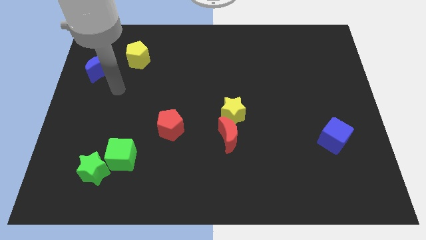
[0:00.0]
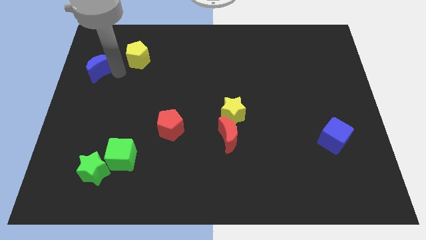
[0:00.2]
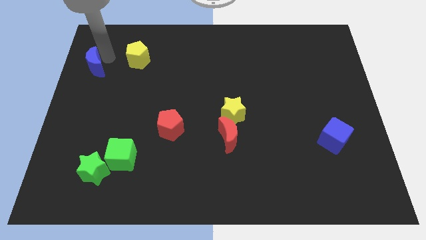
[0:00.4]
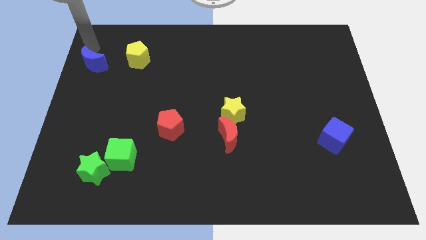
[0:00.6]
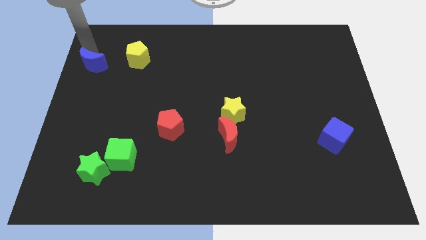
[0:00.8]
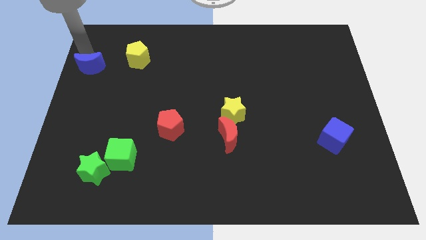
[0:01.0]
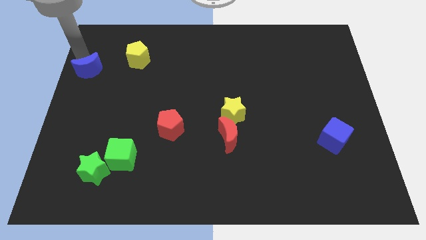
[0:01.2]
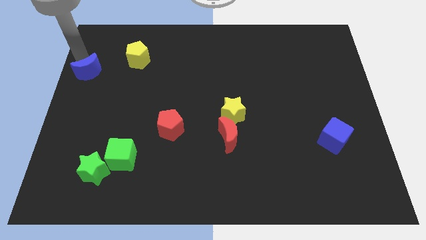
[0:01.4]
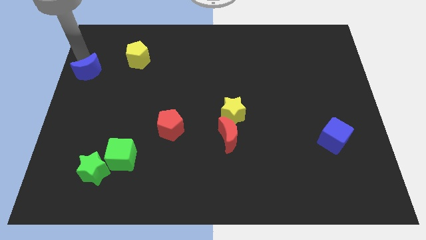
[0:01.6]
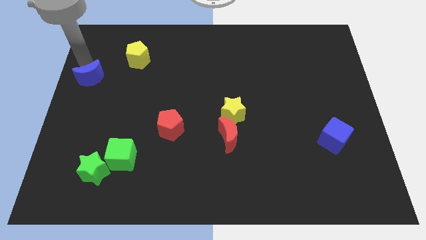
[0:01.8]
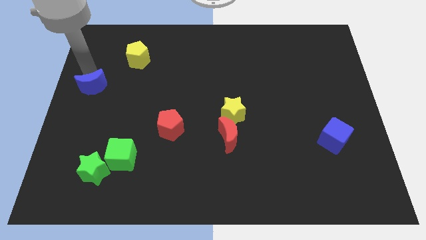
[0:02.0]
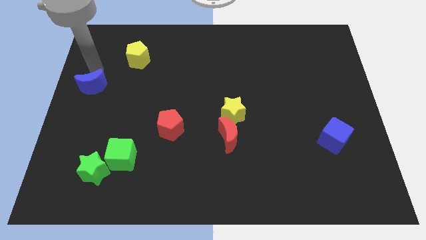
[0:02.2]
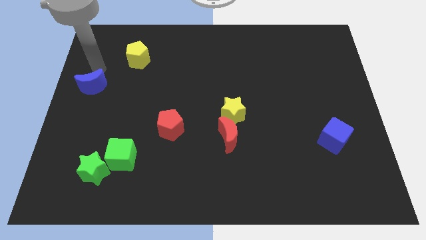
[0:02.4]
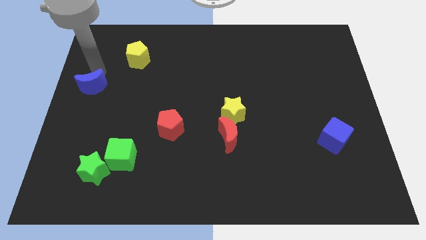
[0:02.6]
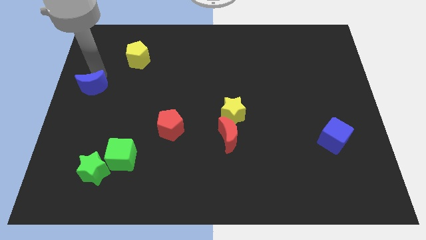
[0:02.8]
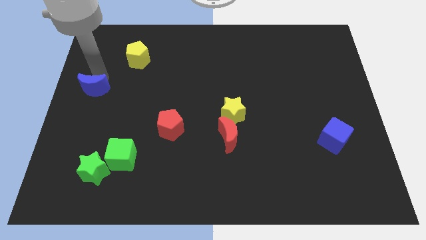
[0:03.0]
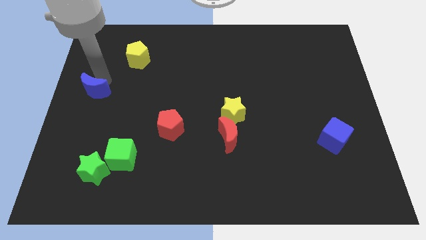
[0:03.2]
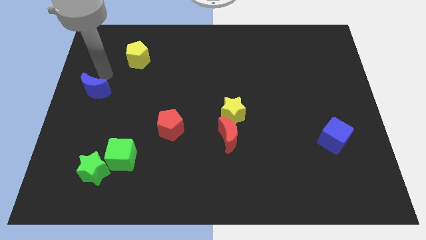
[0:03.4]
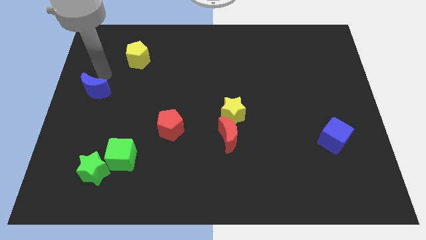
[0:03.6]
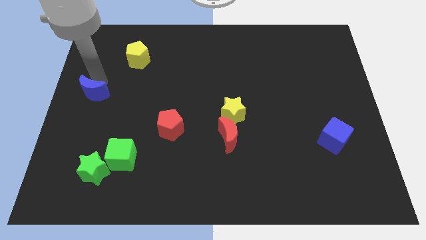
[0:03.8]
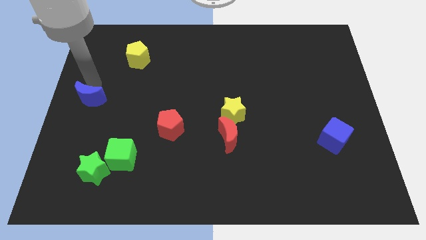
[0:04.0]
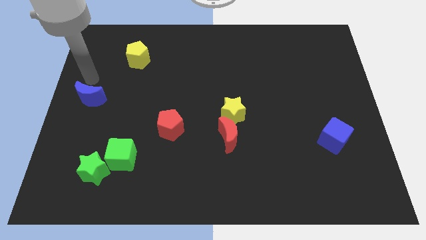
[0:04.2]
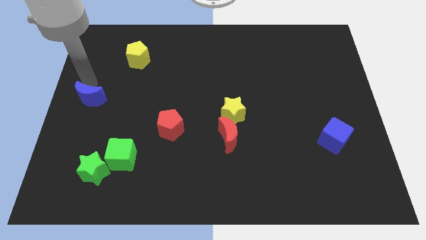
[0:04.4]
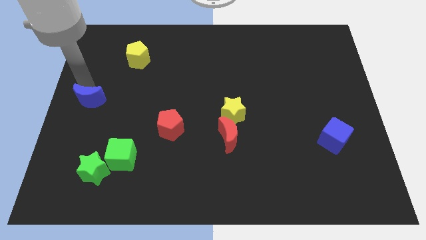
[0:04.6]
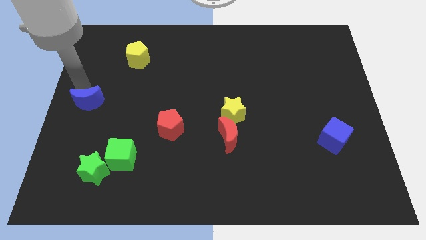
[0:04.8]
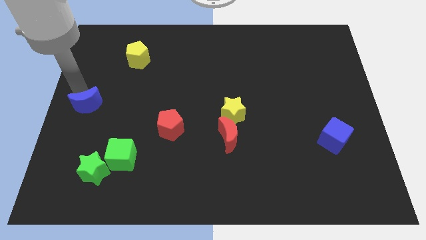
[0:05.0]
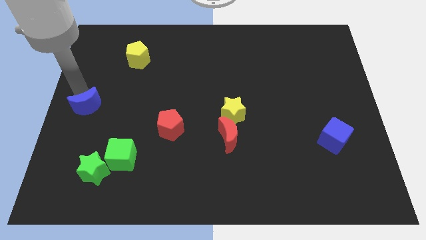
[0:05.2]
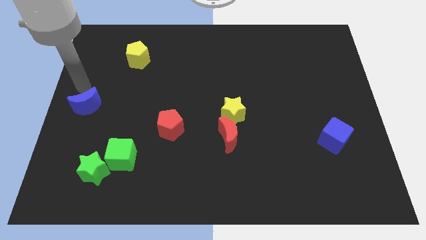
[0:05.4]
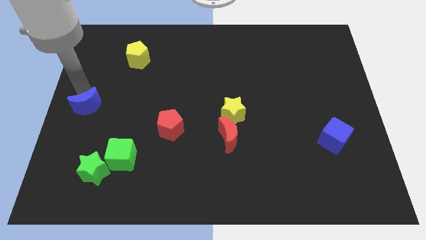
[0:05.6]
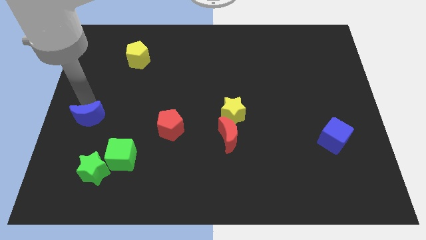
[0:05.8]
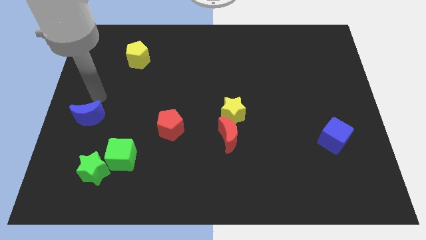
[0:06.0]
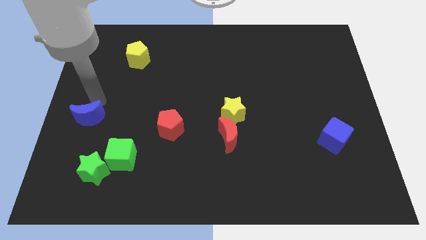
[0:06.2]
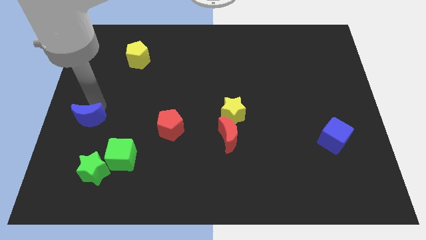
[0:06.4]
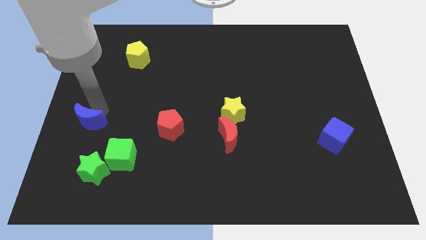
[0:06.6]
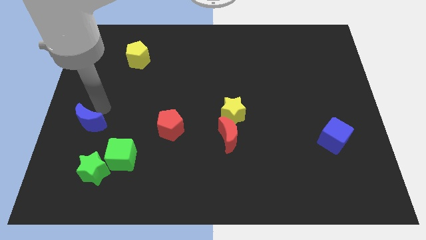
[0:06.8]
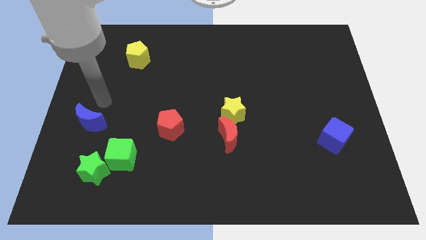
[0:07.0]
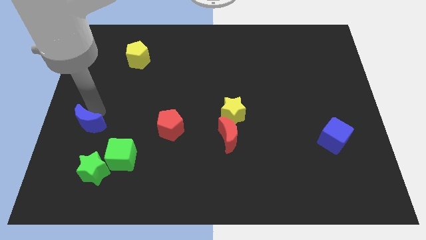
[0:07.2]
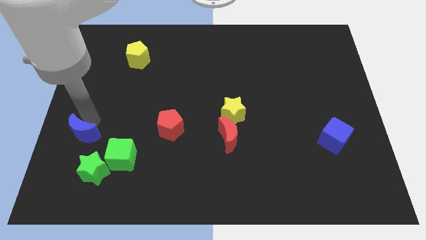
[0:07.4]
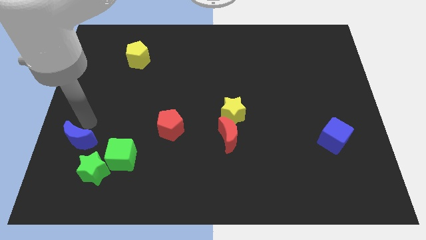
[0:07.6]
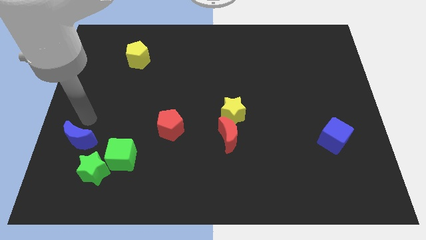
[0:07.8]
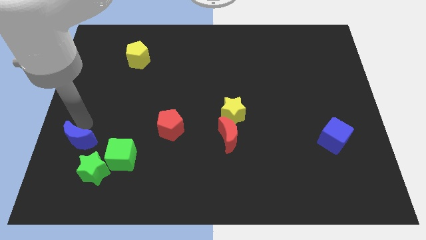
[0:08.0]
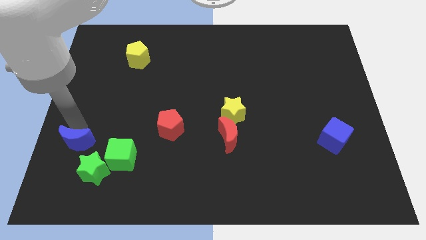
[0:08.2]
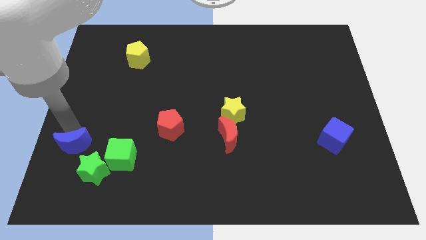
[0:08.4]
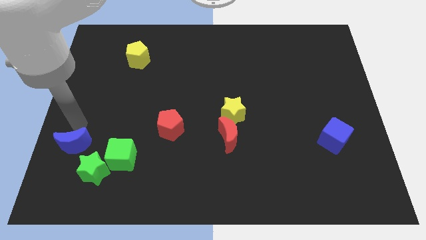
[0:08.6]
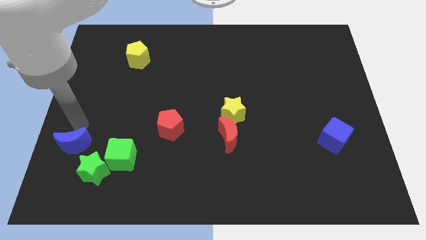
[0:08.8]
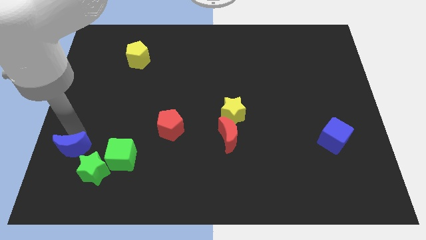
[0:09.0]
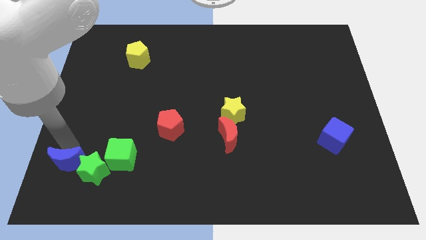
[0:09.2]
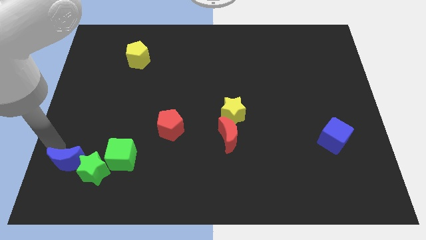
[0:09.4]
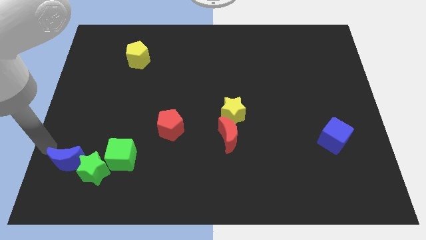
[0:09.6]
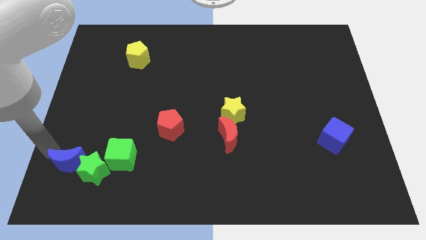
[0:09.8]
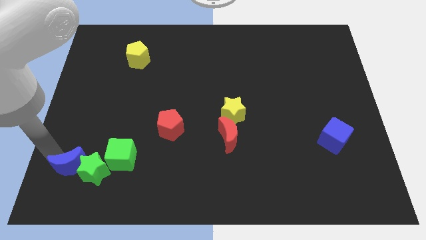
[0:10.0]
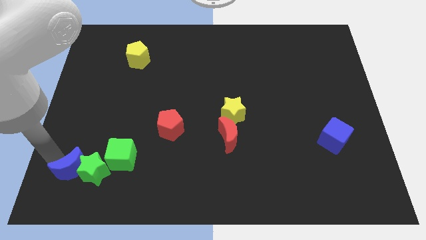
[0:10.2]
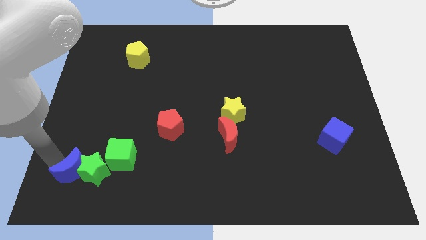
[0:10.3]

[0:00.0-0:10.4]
move the blue moon to the bottom left of the green cube

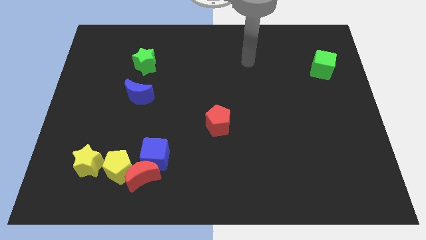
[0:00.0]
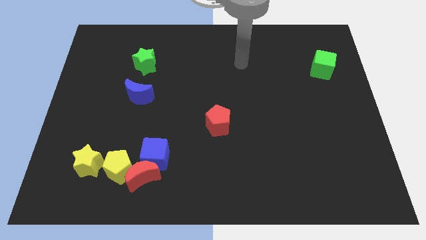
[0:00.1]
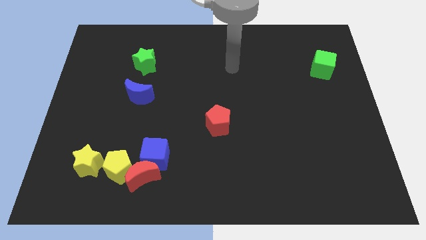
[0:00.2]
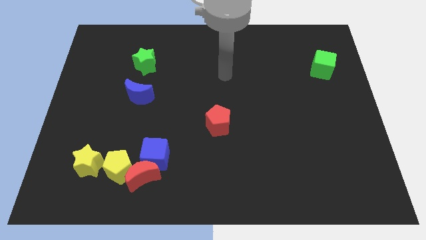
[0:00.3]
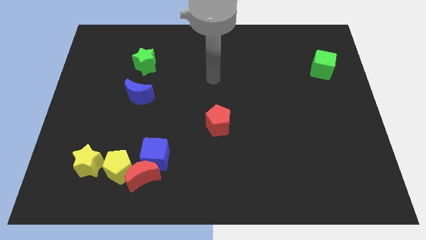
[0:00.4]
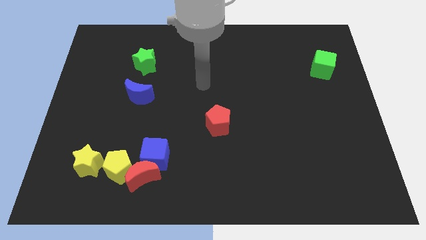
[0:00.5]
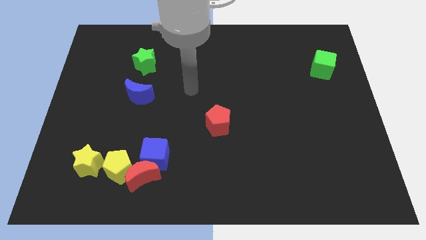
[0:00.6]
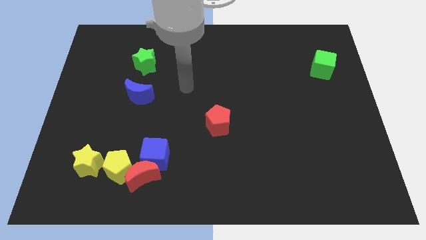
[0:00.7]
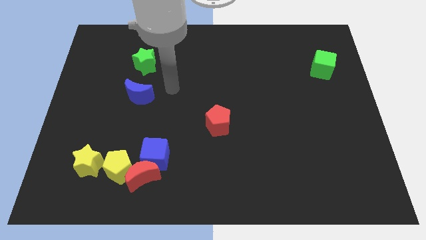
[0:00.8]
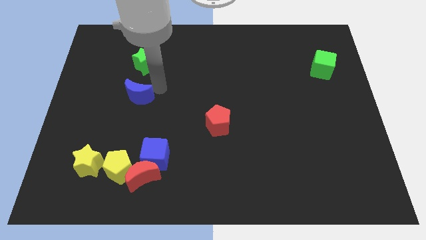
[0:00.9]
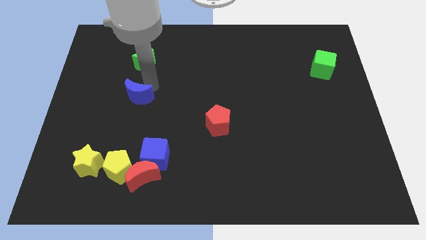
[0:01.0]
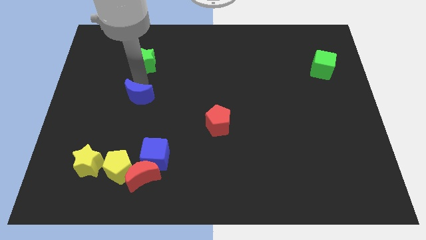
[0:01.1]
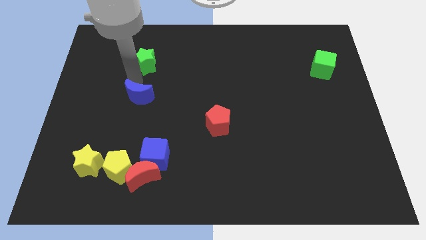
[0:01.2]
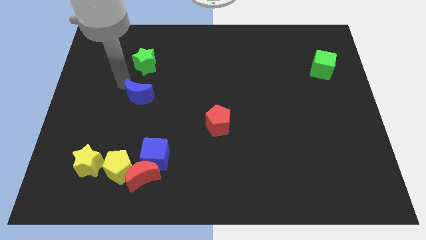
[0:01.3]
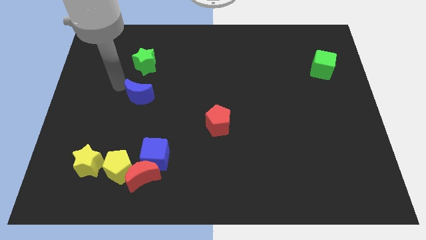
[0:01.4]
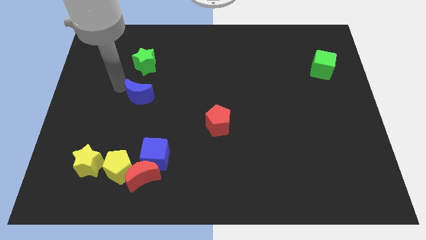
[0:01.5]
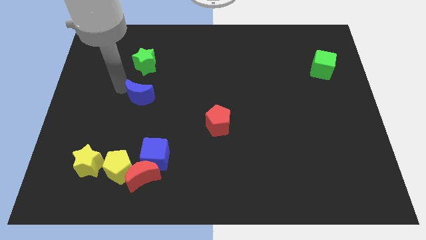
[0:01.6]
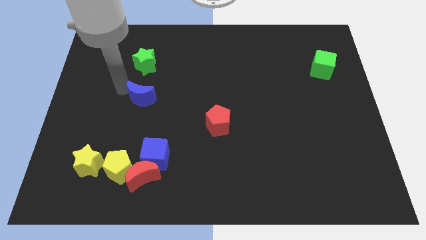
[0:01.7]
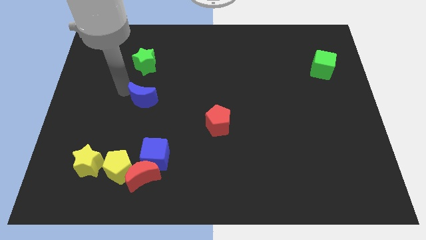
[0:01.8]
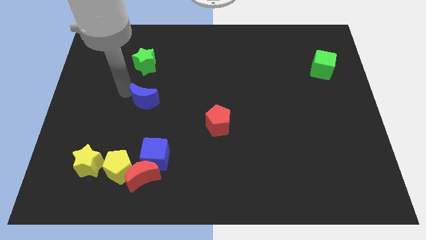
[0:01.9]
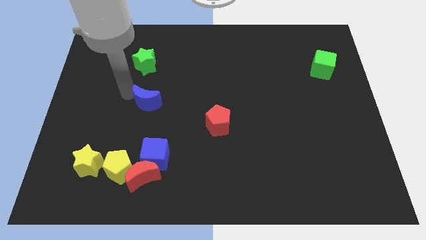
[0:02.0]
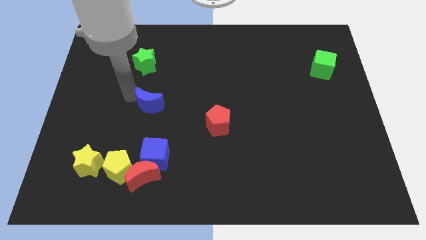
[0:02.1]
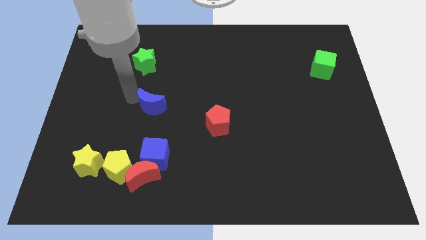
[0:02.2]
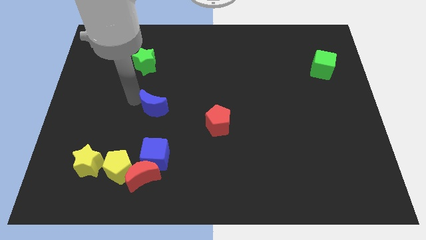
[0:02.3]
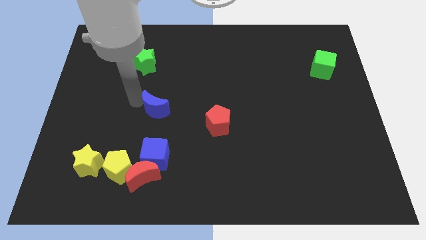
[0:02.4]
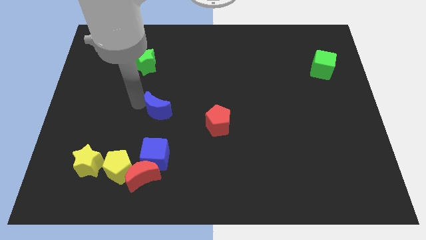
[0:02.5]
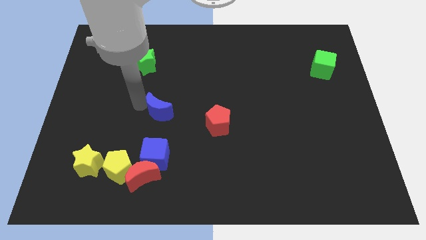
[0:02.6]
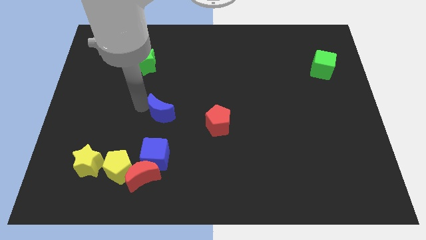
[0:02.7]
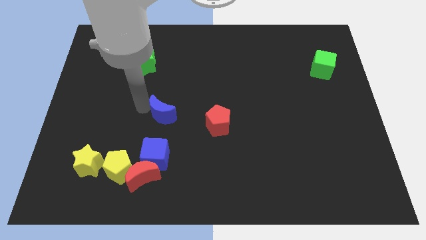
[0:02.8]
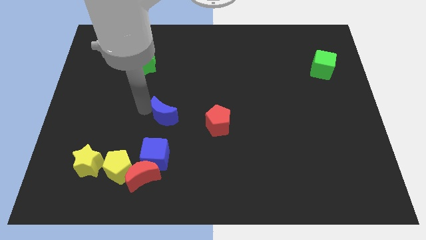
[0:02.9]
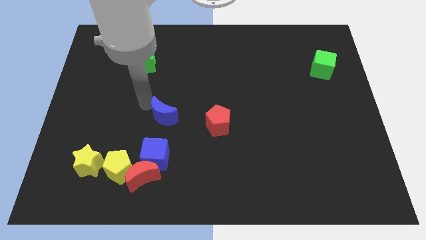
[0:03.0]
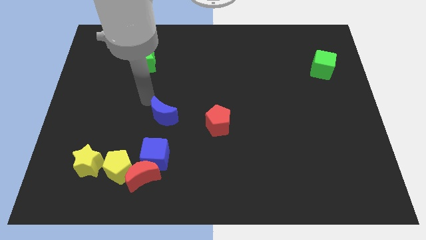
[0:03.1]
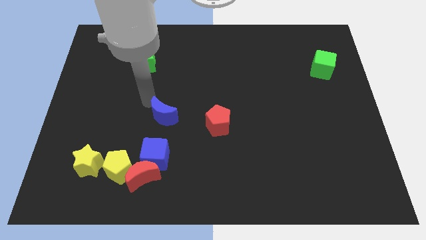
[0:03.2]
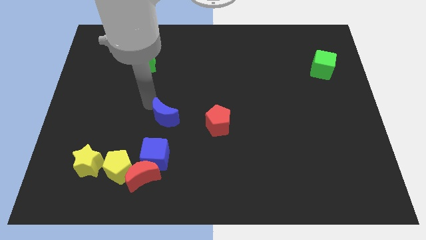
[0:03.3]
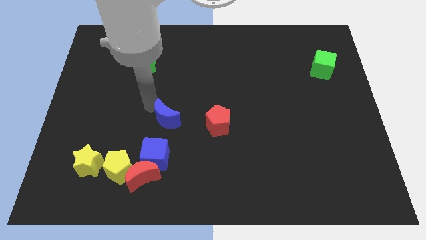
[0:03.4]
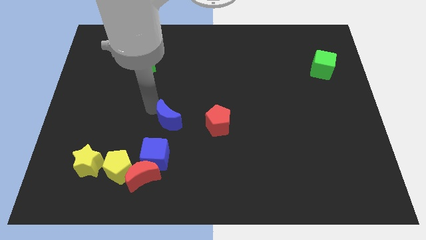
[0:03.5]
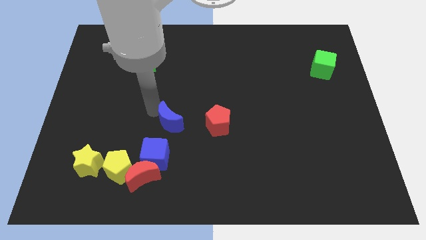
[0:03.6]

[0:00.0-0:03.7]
move the blue moon diagonally up and to the right of the blue cube
